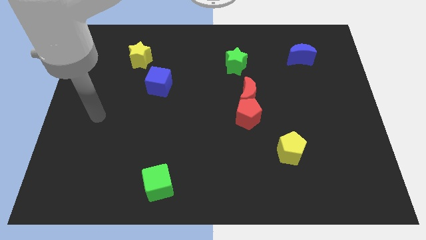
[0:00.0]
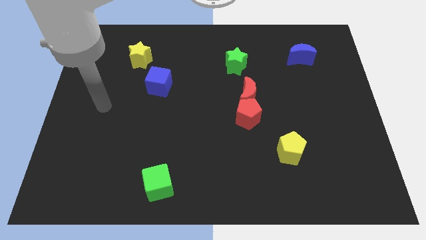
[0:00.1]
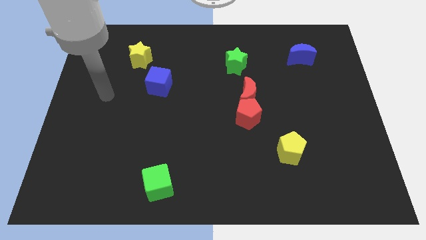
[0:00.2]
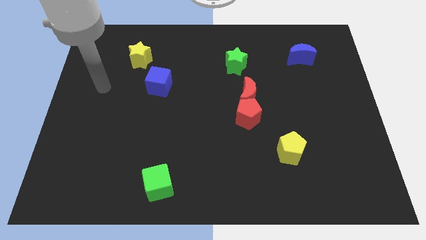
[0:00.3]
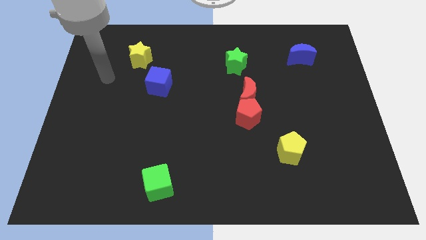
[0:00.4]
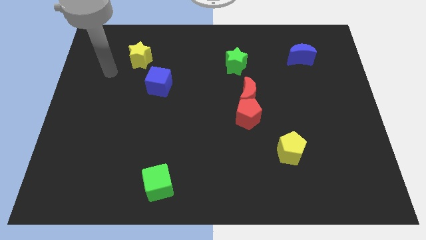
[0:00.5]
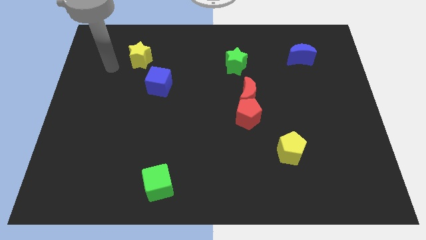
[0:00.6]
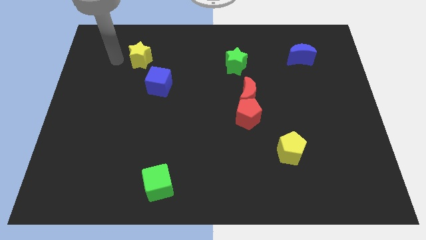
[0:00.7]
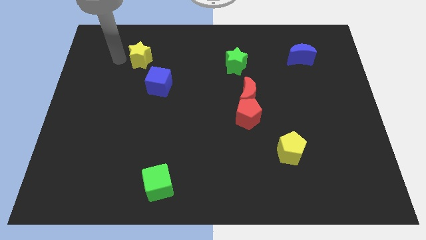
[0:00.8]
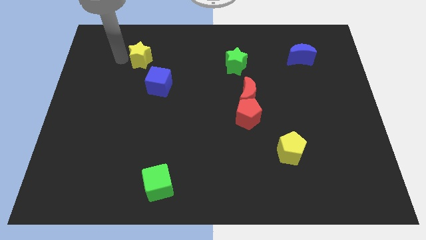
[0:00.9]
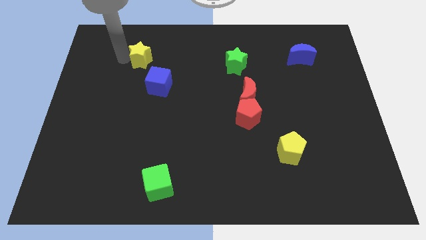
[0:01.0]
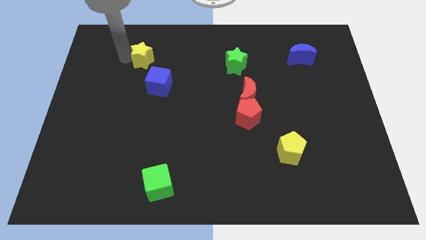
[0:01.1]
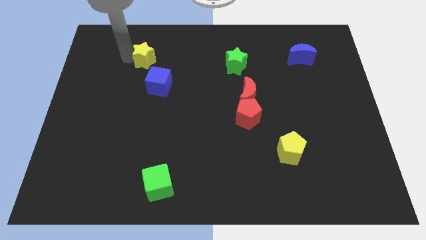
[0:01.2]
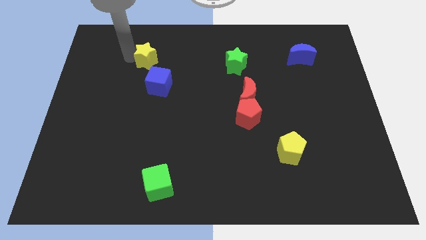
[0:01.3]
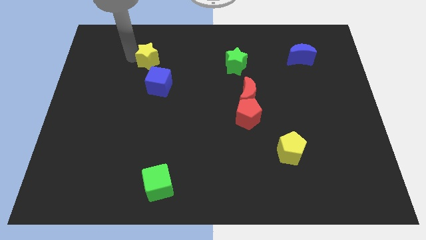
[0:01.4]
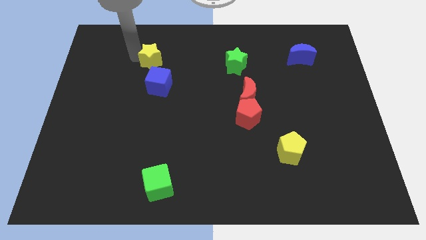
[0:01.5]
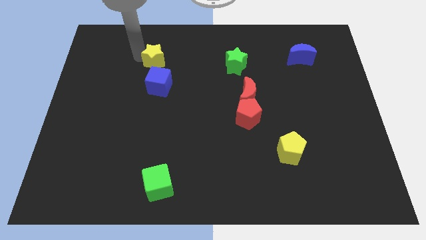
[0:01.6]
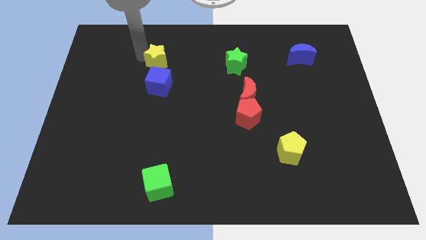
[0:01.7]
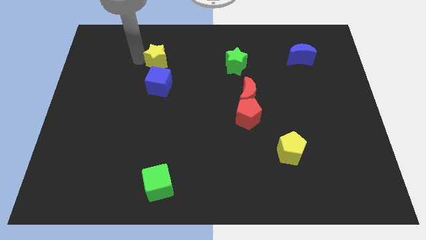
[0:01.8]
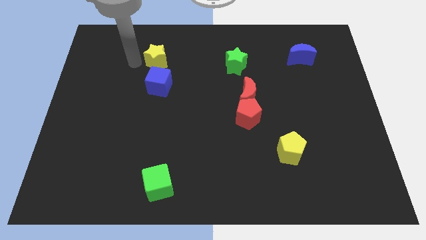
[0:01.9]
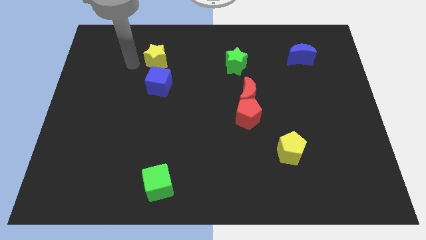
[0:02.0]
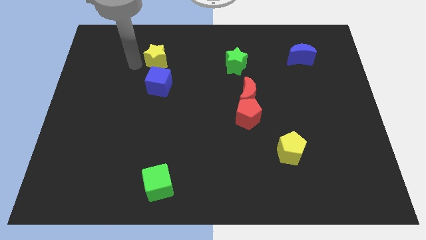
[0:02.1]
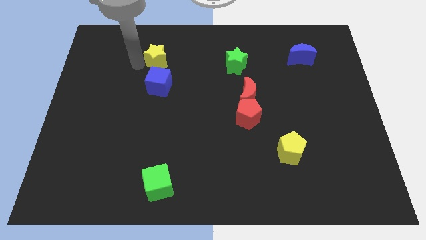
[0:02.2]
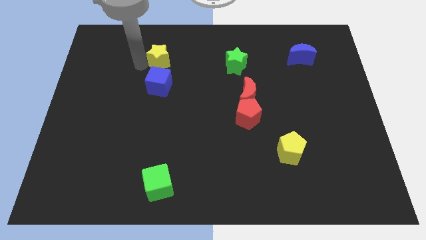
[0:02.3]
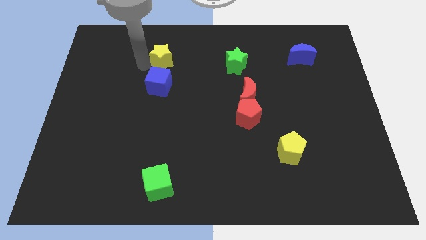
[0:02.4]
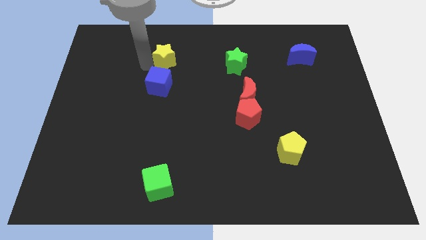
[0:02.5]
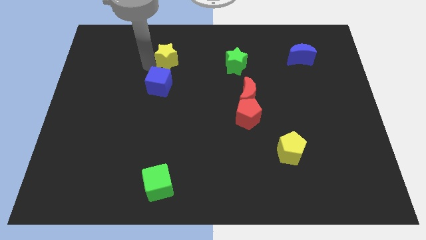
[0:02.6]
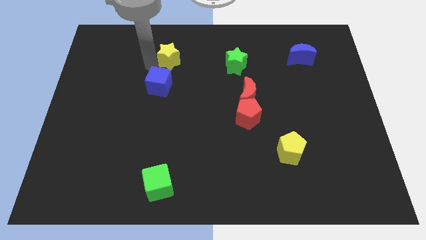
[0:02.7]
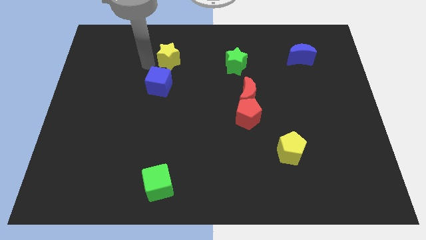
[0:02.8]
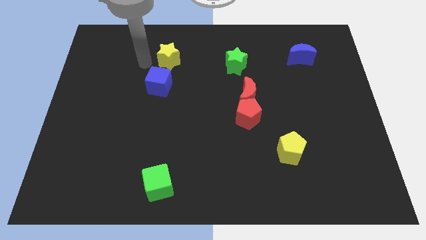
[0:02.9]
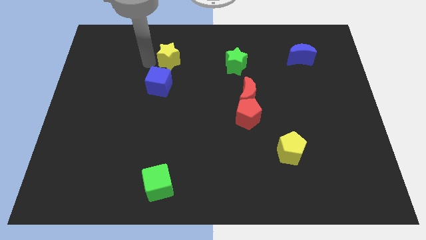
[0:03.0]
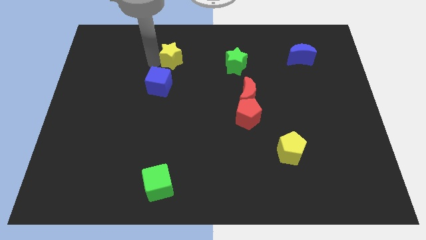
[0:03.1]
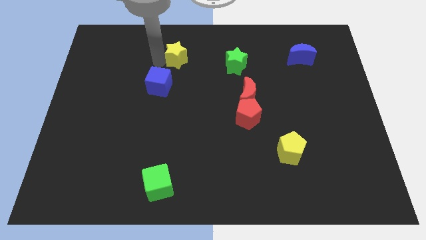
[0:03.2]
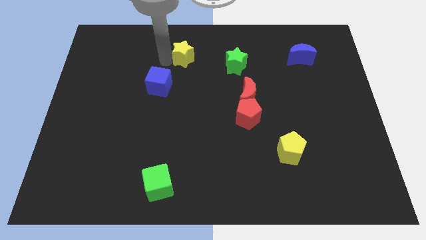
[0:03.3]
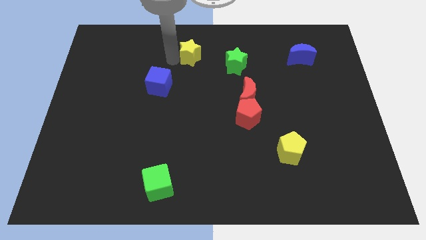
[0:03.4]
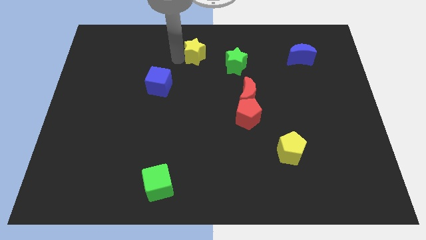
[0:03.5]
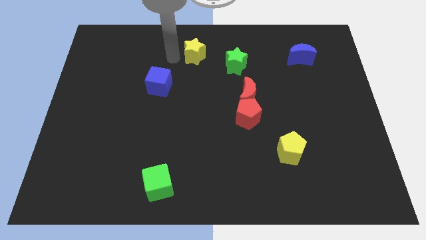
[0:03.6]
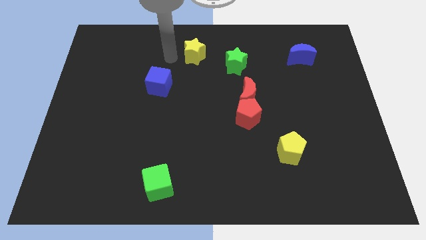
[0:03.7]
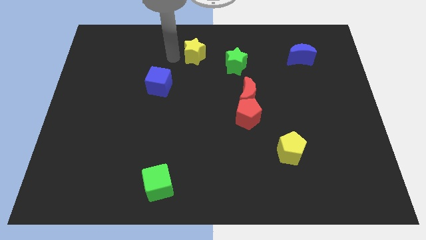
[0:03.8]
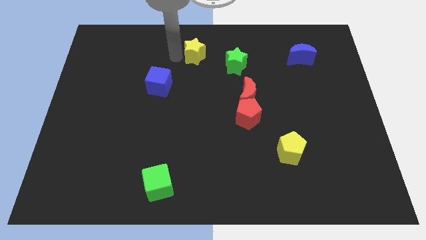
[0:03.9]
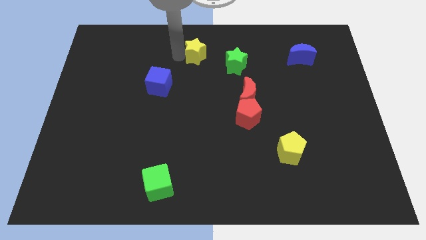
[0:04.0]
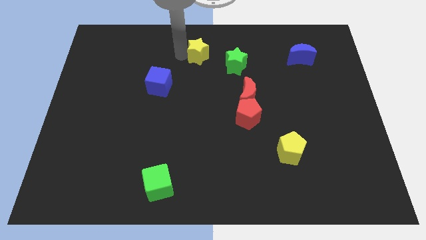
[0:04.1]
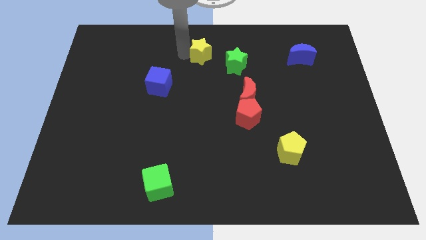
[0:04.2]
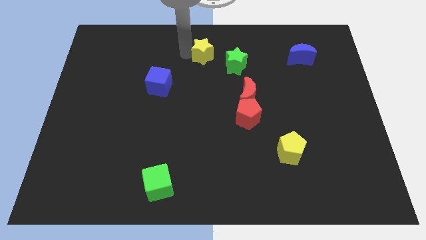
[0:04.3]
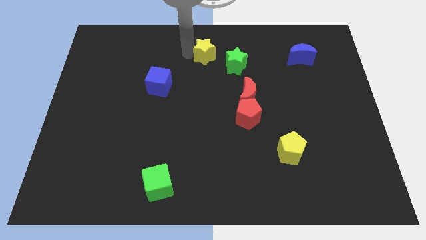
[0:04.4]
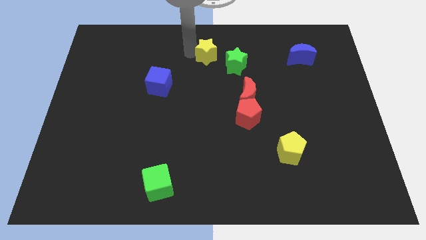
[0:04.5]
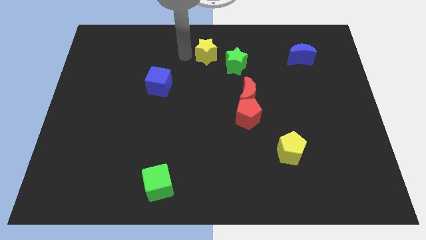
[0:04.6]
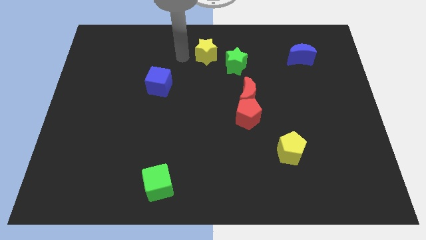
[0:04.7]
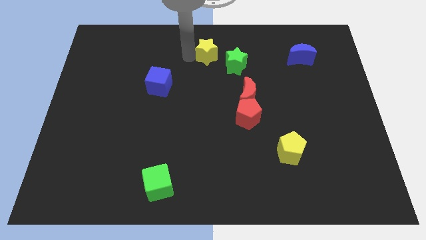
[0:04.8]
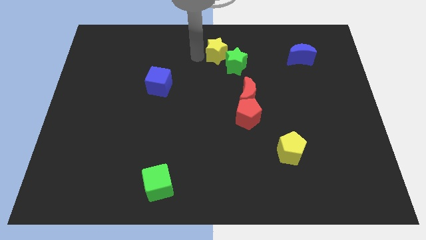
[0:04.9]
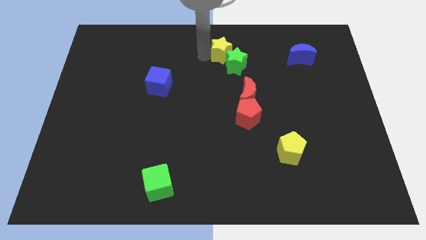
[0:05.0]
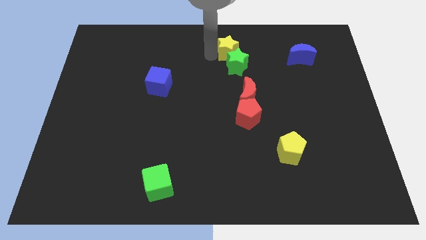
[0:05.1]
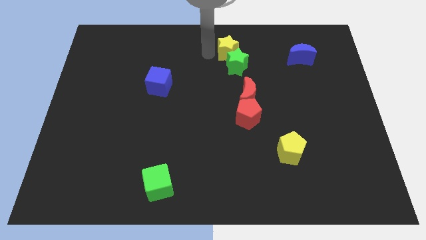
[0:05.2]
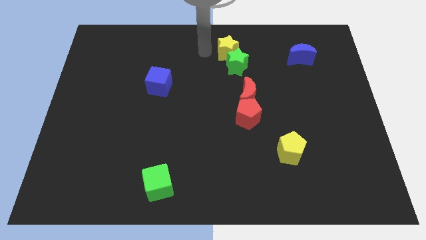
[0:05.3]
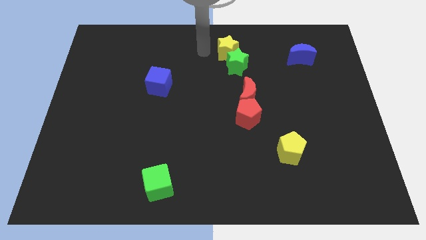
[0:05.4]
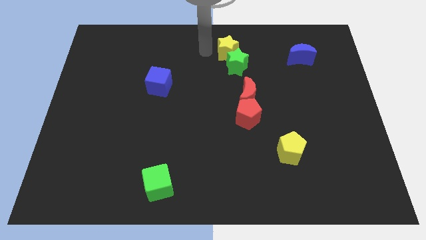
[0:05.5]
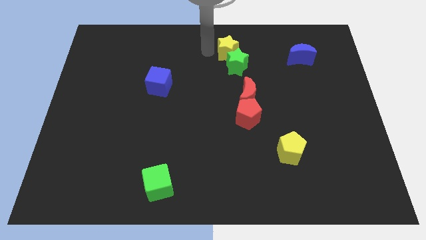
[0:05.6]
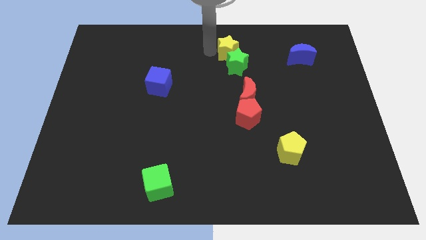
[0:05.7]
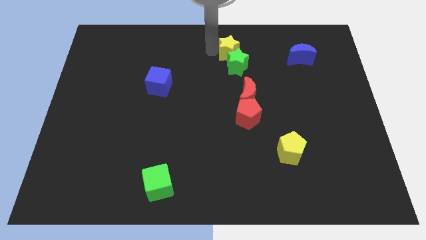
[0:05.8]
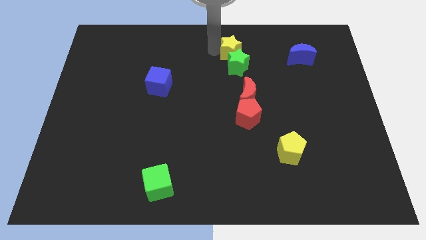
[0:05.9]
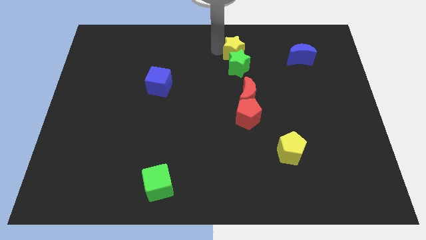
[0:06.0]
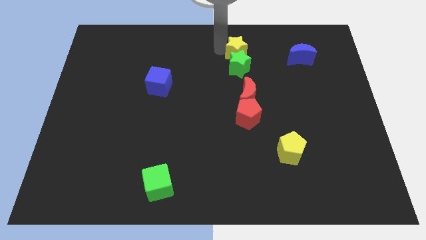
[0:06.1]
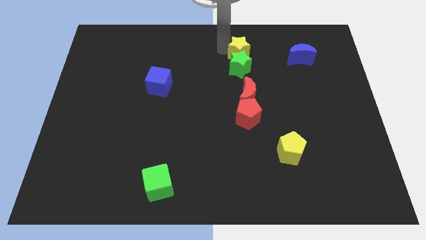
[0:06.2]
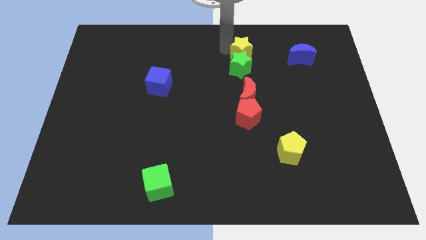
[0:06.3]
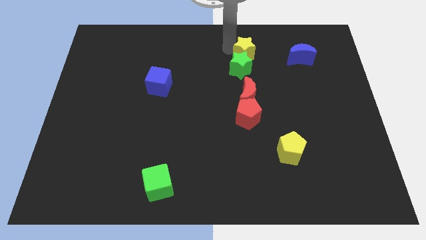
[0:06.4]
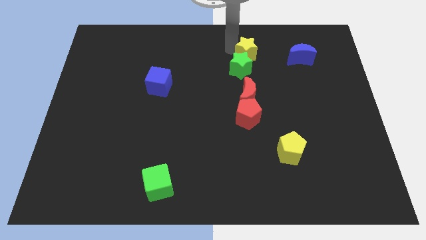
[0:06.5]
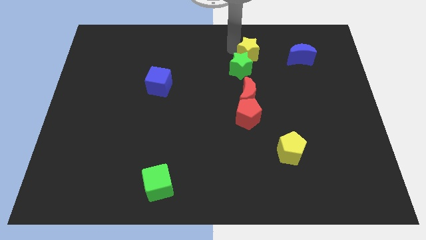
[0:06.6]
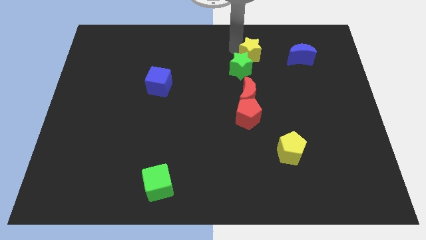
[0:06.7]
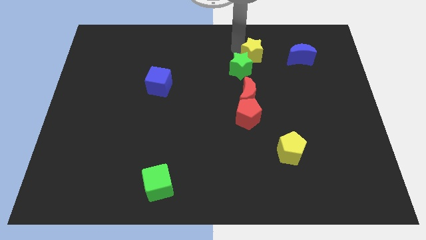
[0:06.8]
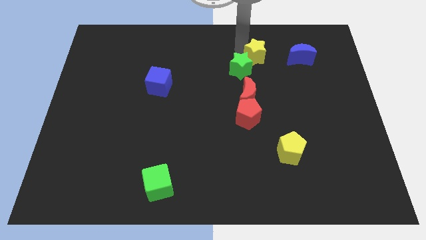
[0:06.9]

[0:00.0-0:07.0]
push the yellow star to the right side of the green star
